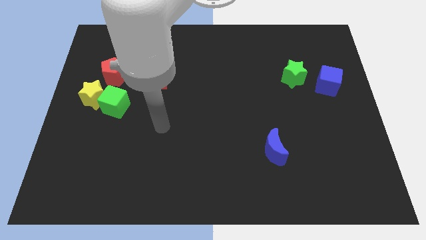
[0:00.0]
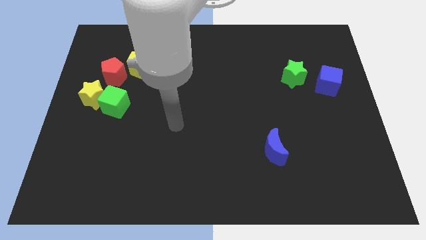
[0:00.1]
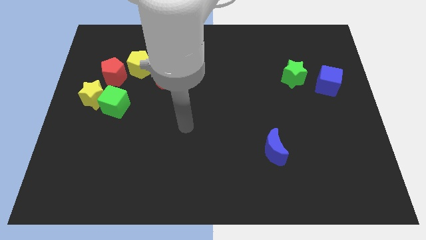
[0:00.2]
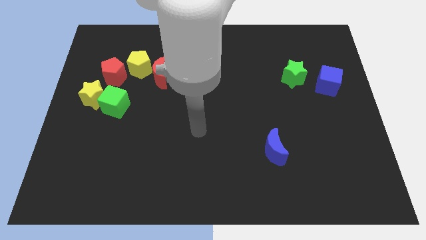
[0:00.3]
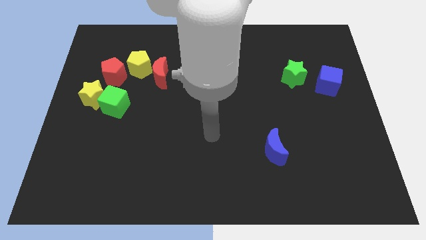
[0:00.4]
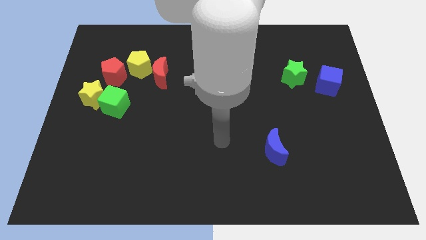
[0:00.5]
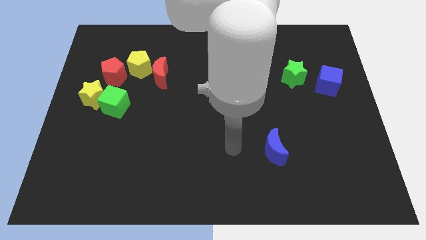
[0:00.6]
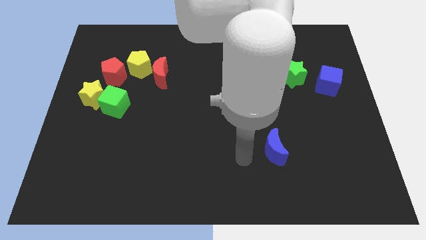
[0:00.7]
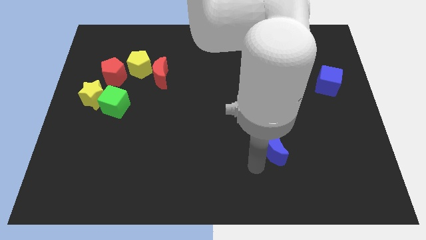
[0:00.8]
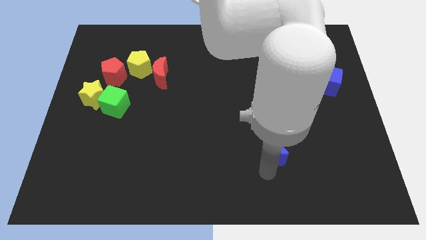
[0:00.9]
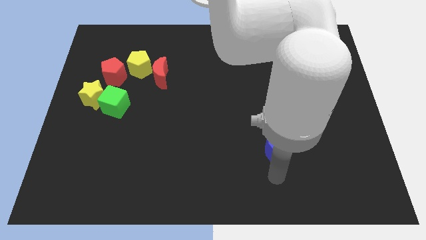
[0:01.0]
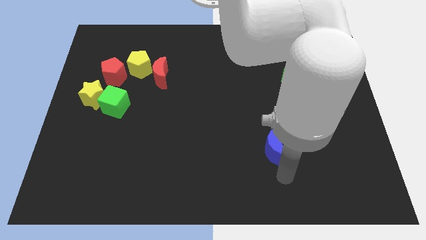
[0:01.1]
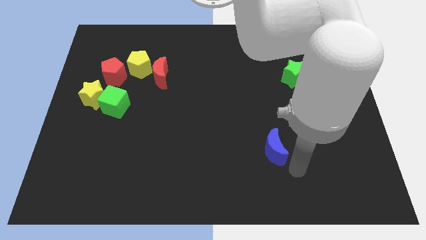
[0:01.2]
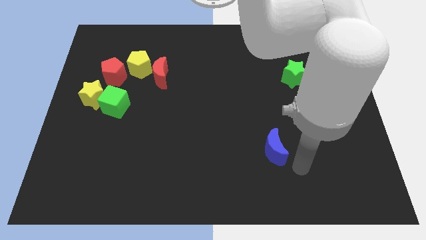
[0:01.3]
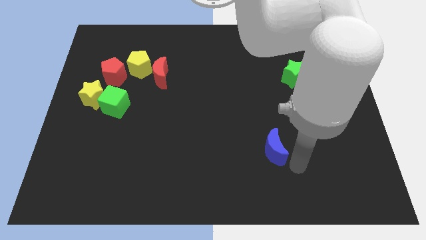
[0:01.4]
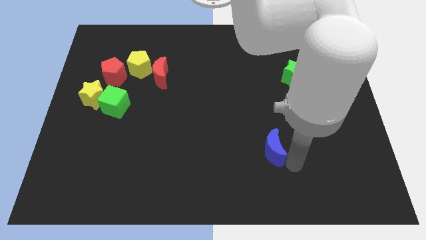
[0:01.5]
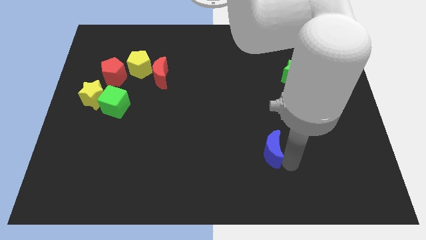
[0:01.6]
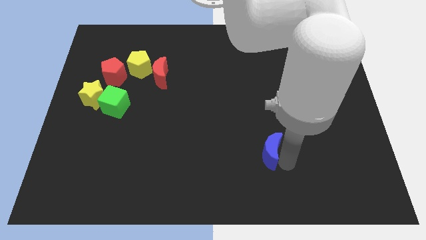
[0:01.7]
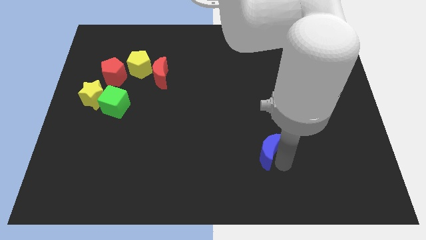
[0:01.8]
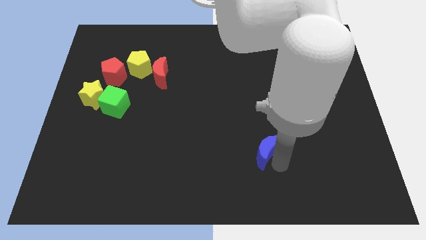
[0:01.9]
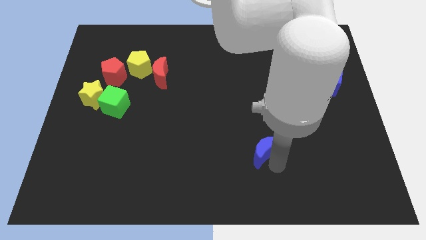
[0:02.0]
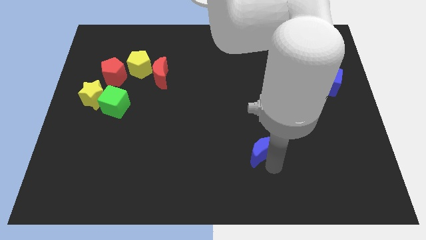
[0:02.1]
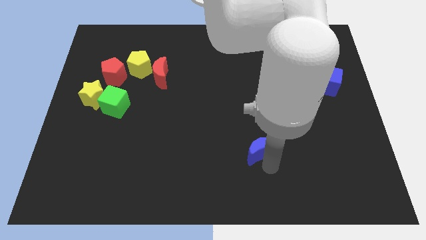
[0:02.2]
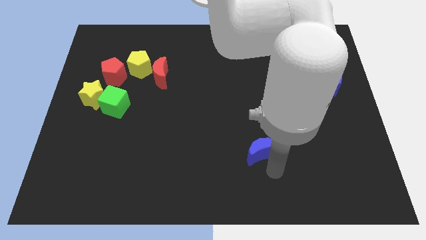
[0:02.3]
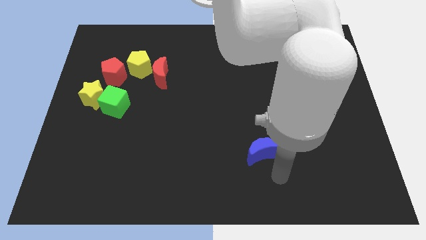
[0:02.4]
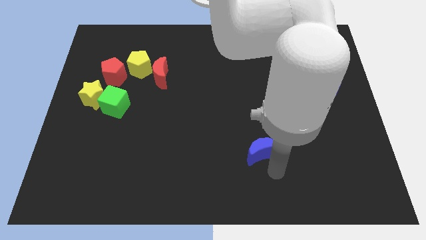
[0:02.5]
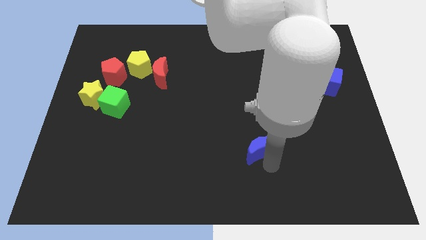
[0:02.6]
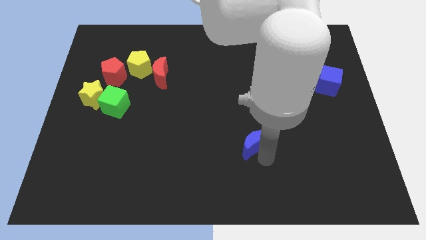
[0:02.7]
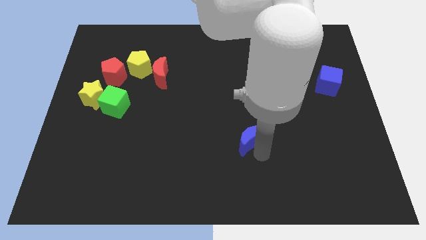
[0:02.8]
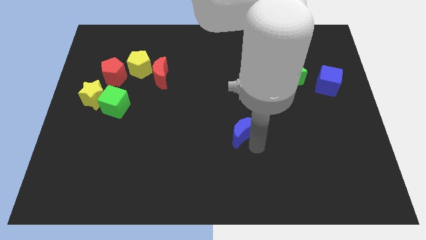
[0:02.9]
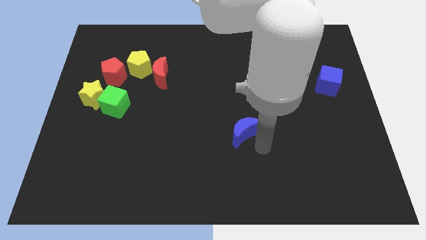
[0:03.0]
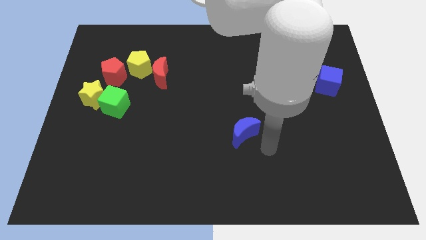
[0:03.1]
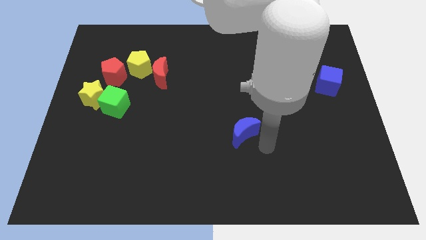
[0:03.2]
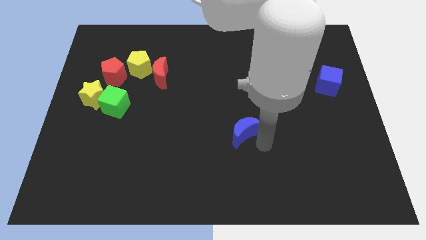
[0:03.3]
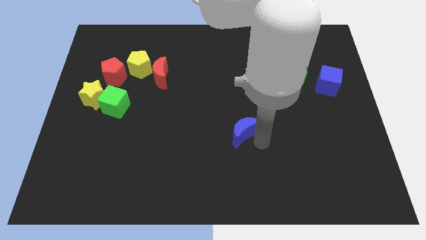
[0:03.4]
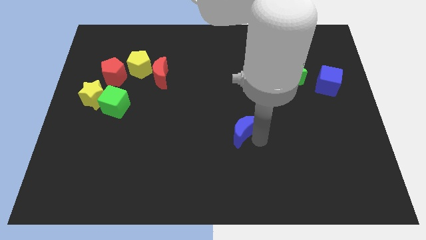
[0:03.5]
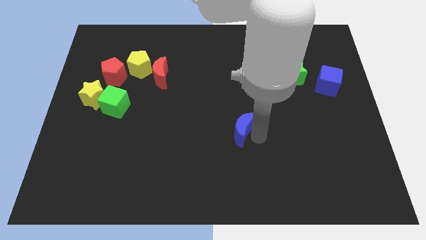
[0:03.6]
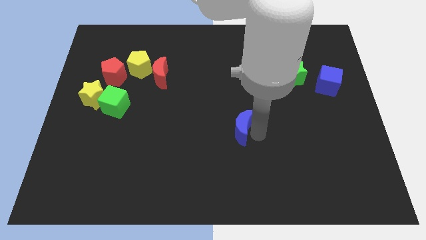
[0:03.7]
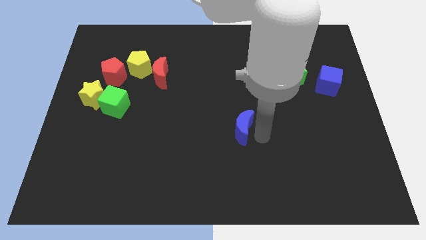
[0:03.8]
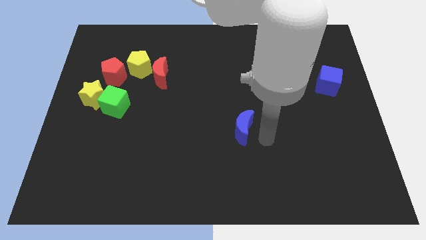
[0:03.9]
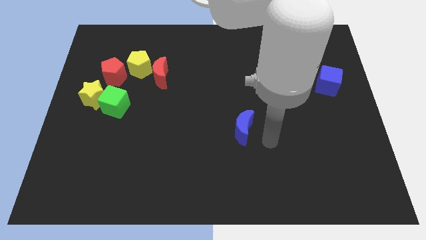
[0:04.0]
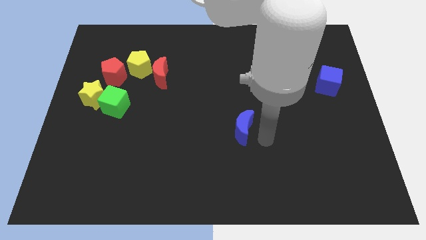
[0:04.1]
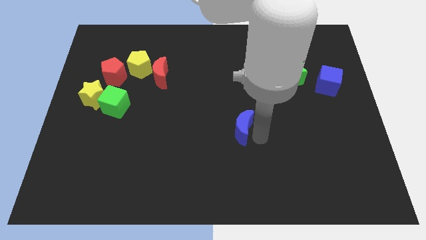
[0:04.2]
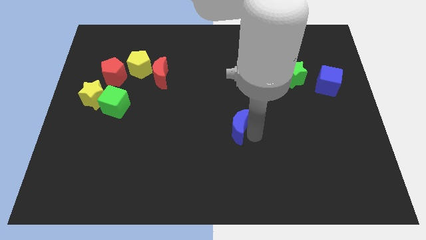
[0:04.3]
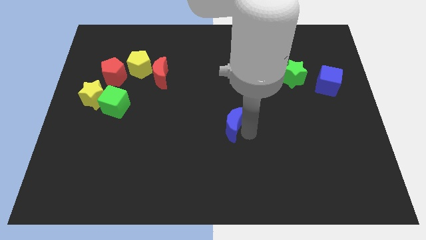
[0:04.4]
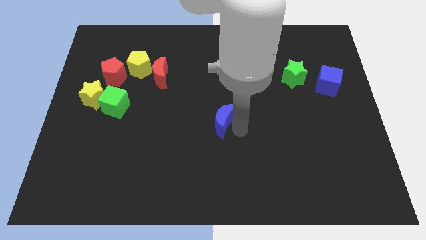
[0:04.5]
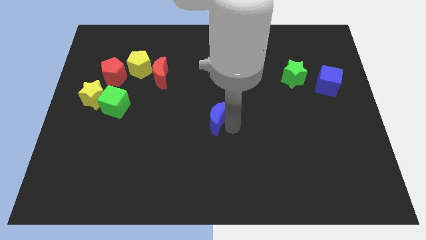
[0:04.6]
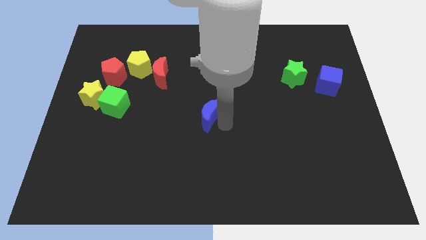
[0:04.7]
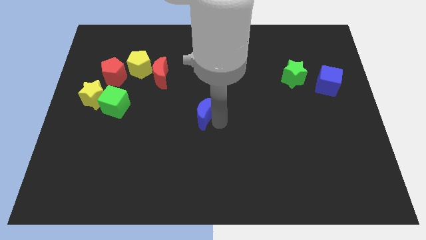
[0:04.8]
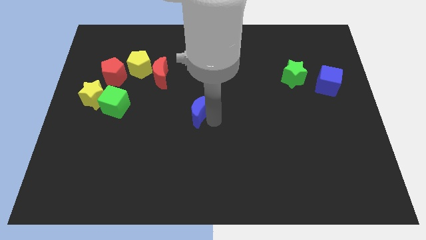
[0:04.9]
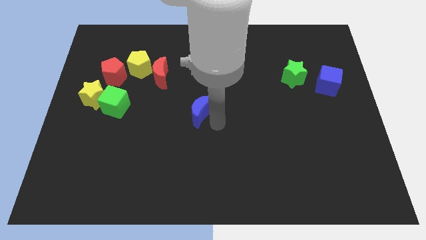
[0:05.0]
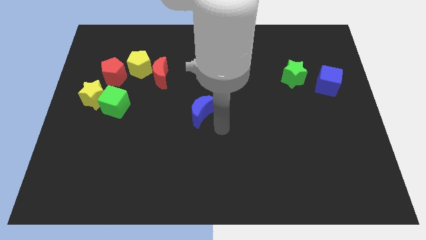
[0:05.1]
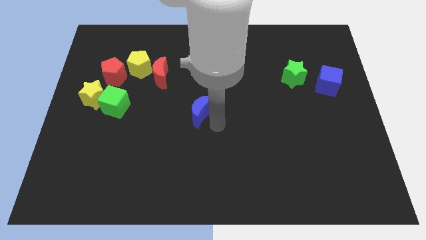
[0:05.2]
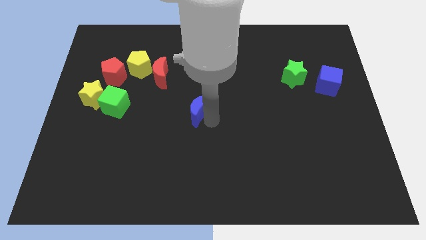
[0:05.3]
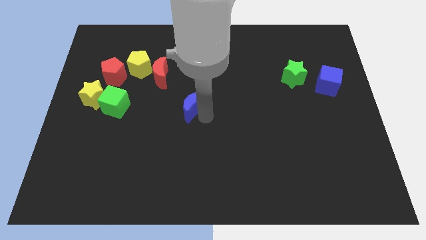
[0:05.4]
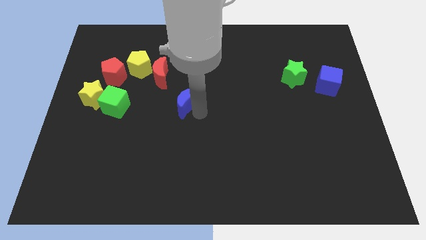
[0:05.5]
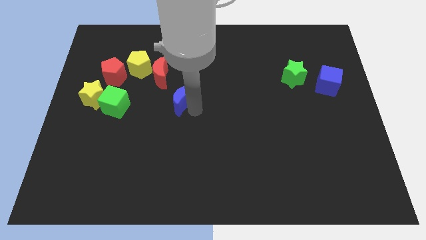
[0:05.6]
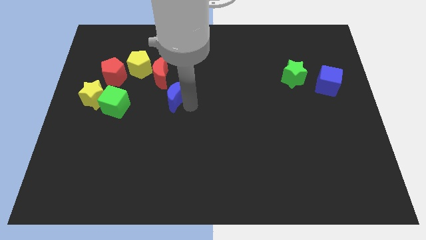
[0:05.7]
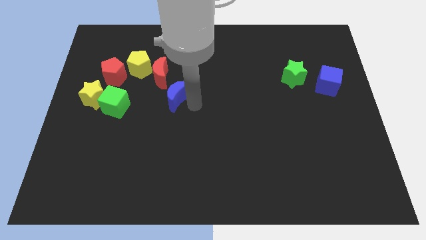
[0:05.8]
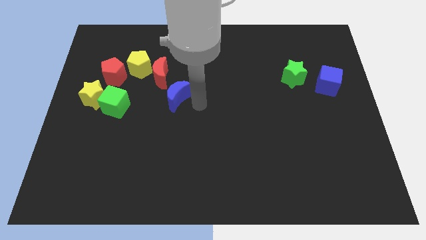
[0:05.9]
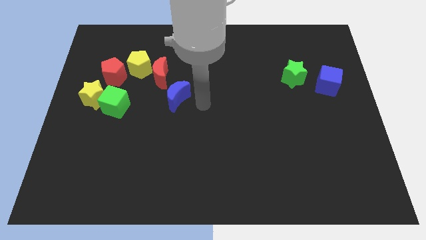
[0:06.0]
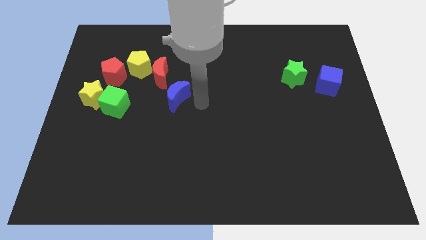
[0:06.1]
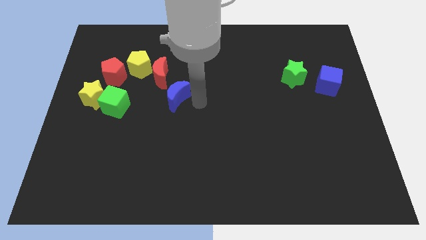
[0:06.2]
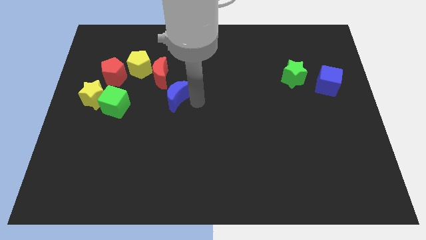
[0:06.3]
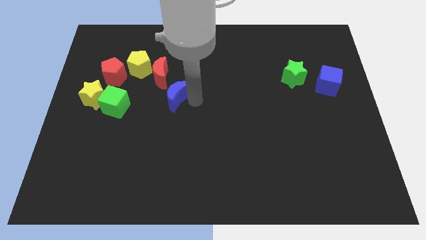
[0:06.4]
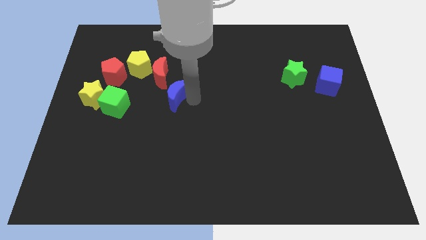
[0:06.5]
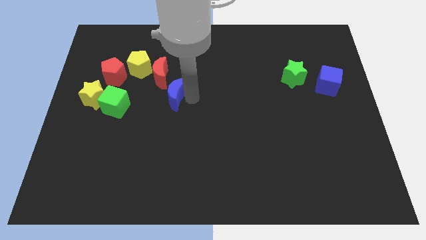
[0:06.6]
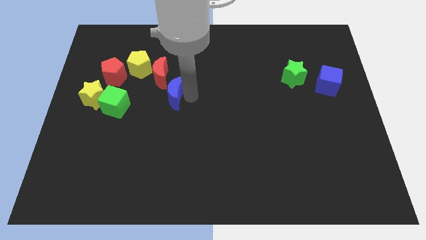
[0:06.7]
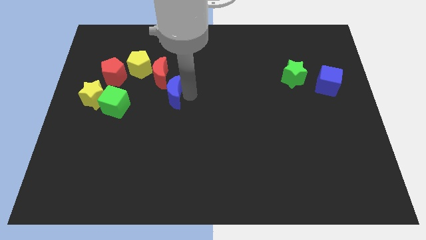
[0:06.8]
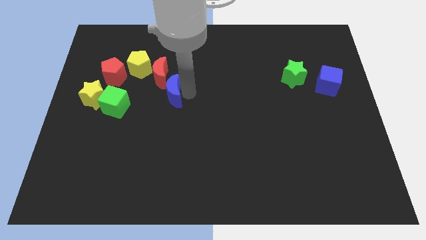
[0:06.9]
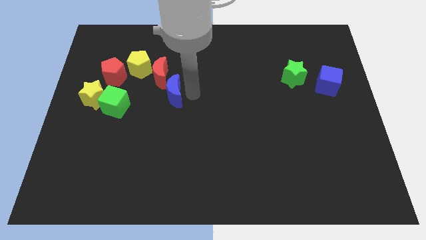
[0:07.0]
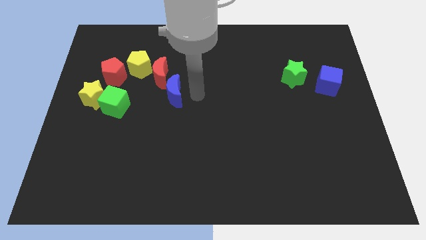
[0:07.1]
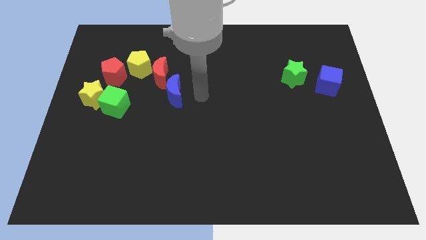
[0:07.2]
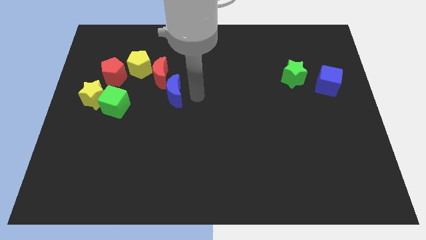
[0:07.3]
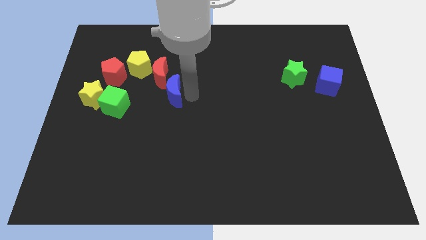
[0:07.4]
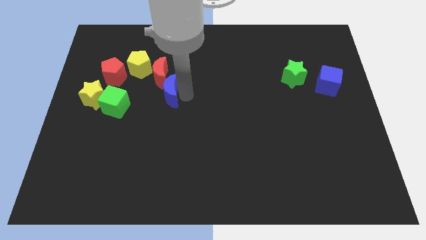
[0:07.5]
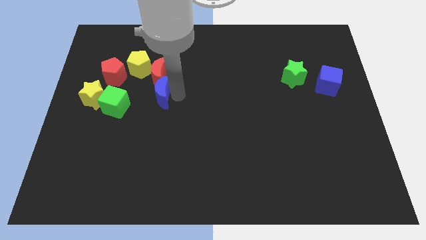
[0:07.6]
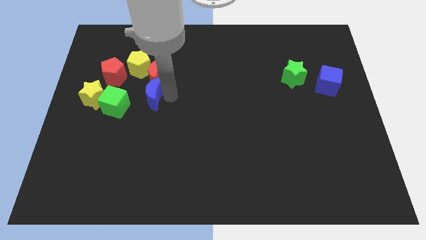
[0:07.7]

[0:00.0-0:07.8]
push the blue moon diagonally down and to the right of the red pentagon
